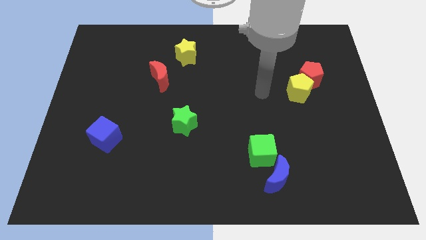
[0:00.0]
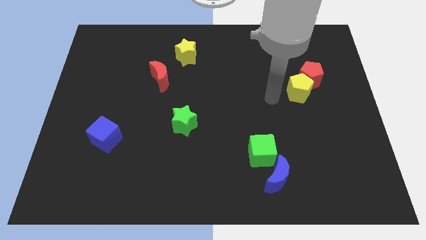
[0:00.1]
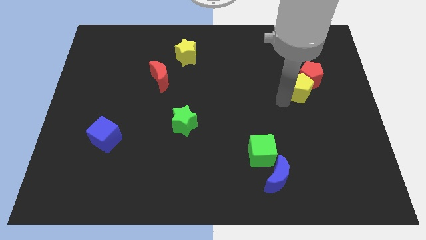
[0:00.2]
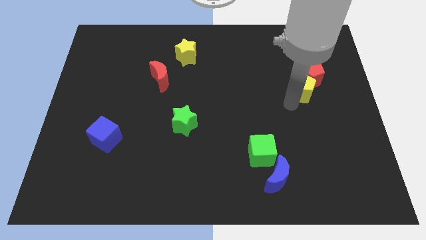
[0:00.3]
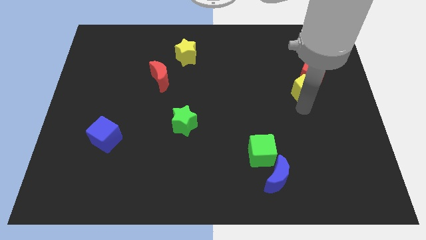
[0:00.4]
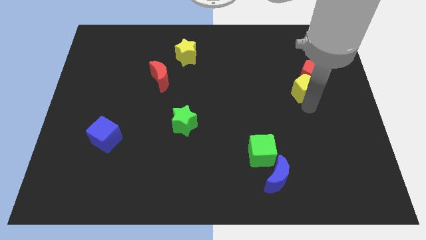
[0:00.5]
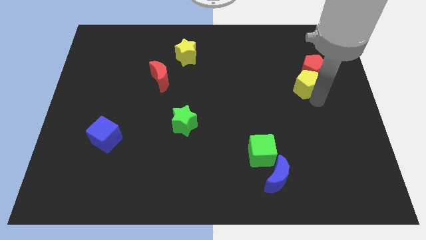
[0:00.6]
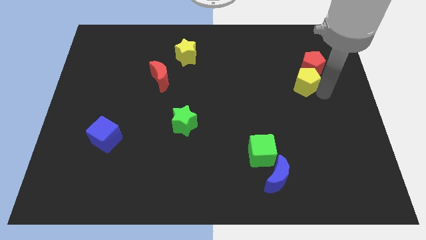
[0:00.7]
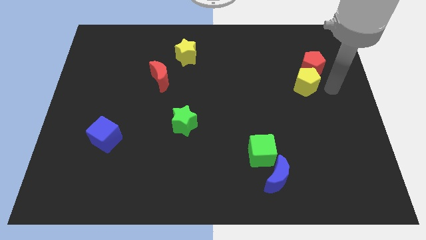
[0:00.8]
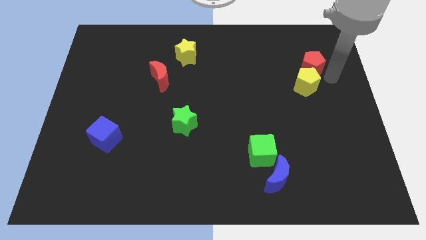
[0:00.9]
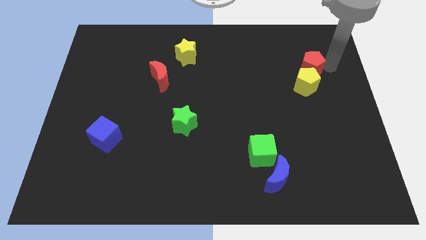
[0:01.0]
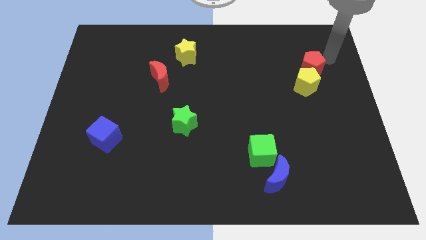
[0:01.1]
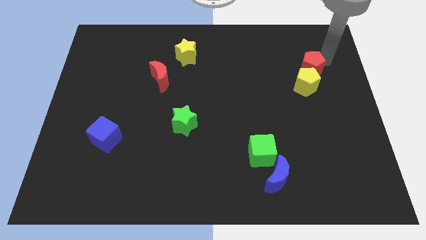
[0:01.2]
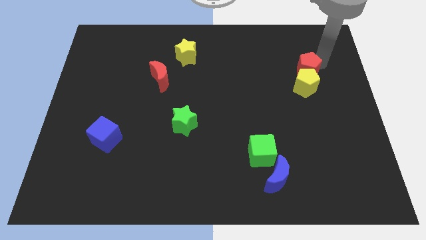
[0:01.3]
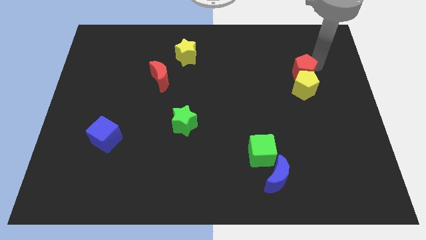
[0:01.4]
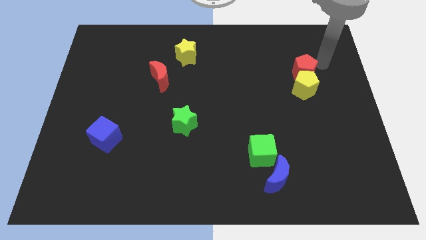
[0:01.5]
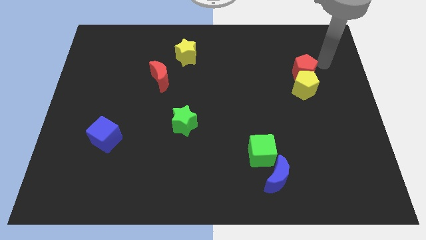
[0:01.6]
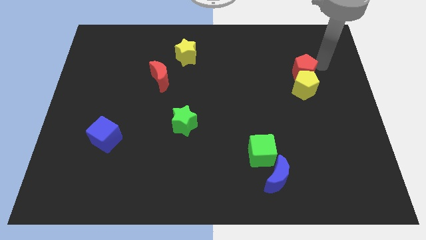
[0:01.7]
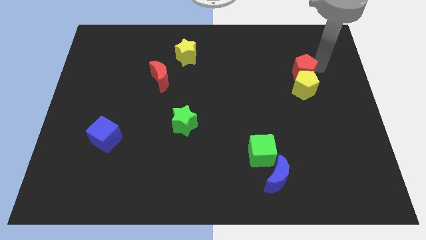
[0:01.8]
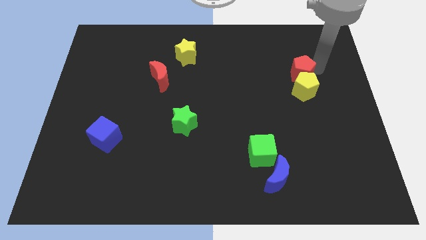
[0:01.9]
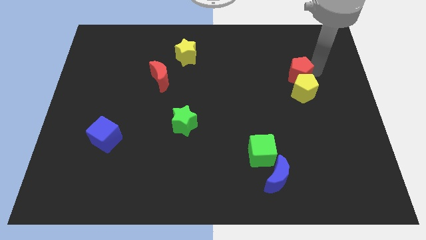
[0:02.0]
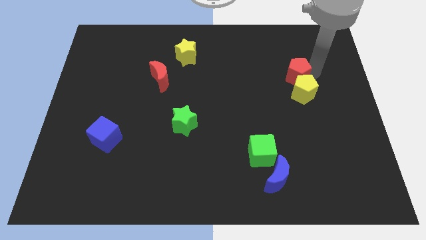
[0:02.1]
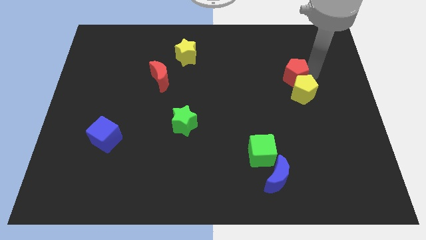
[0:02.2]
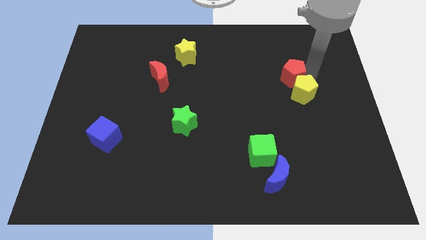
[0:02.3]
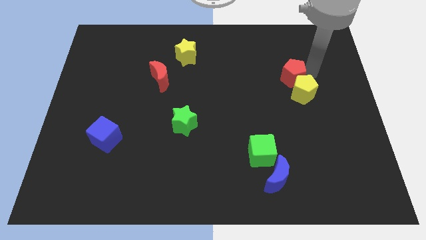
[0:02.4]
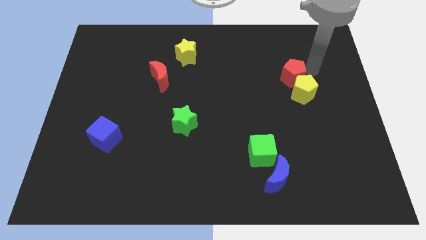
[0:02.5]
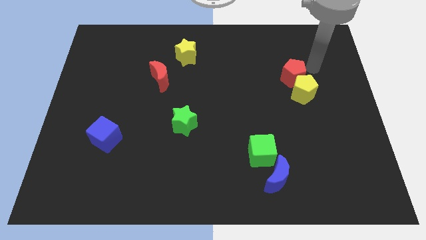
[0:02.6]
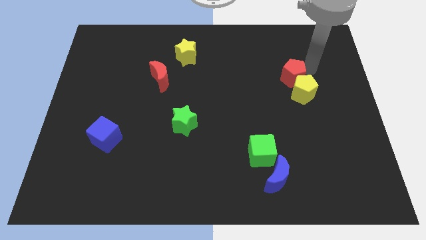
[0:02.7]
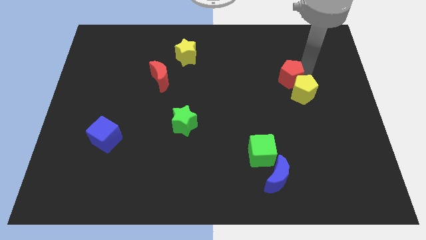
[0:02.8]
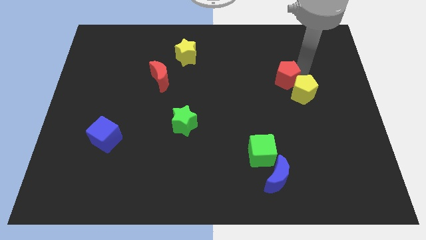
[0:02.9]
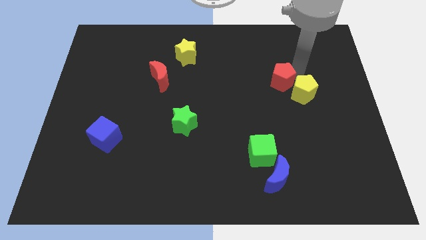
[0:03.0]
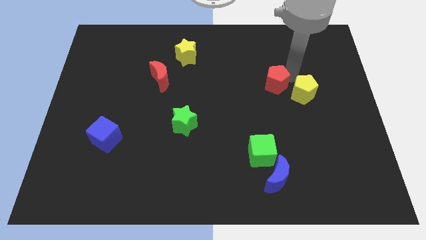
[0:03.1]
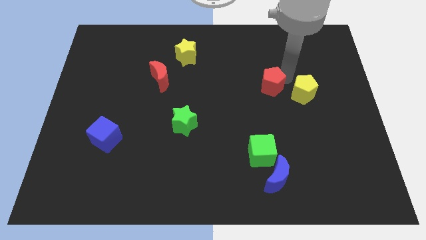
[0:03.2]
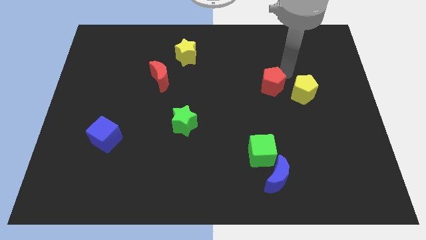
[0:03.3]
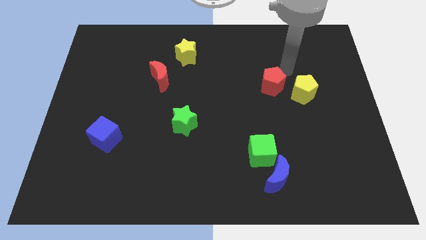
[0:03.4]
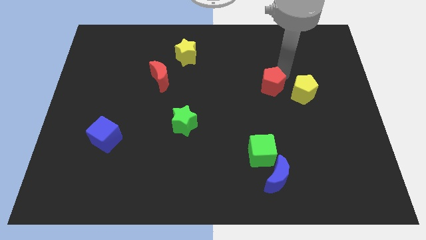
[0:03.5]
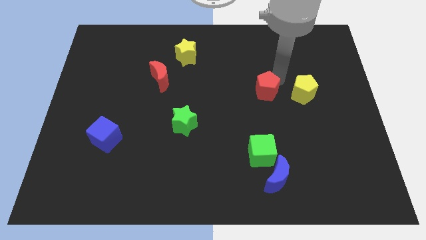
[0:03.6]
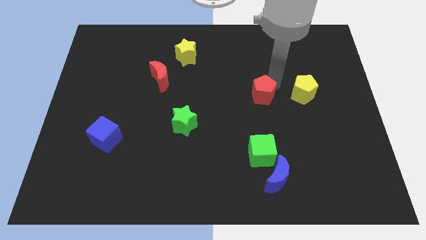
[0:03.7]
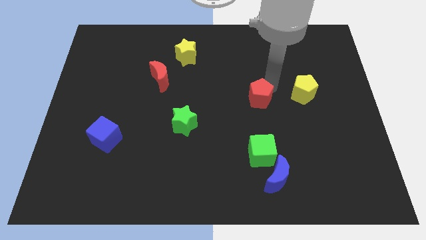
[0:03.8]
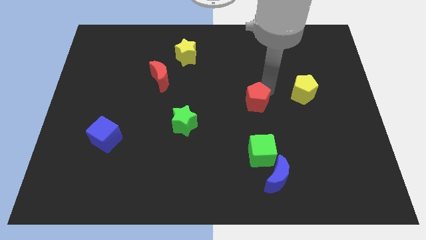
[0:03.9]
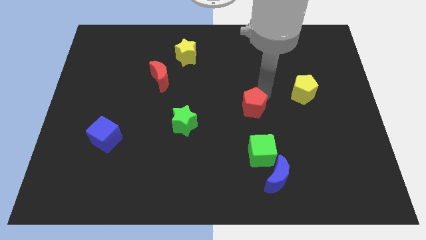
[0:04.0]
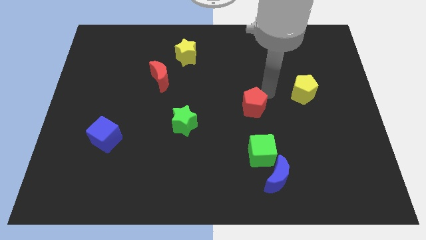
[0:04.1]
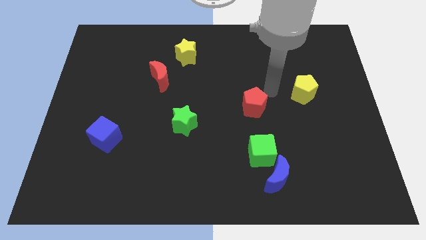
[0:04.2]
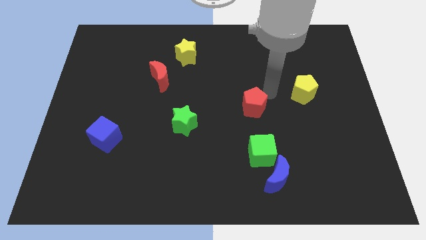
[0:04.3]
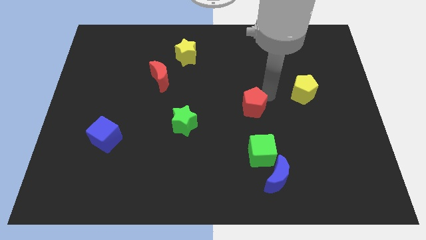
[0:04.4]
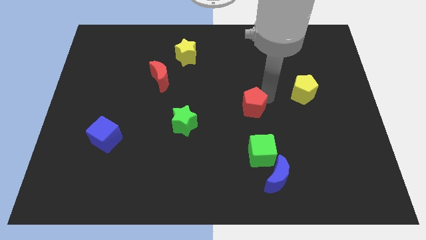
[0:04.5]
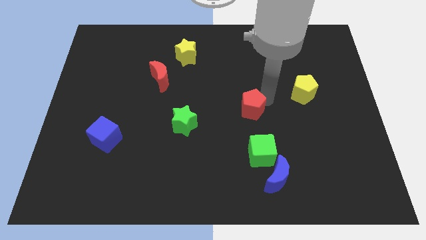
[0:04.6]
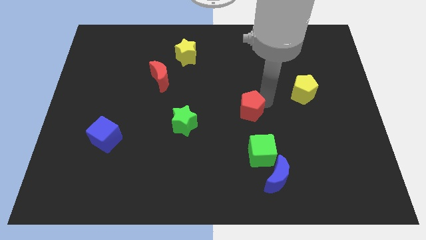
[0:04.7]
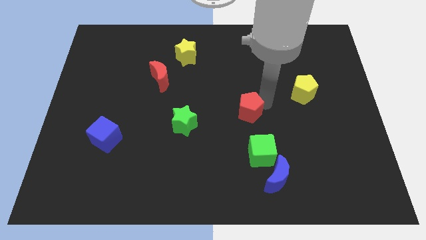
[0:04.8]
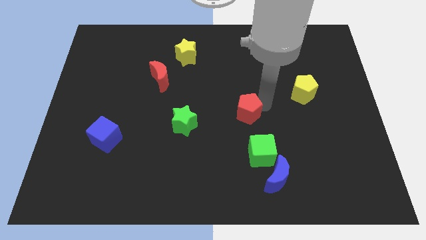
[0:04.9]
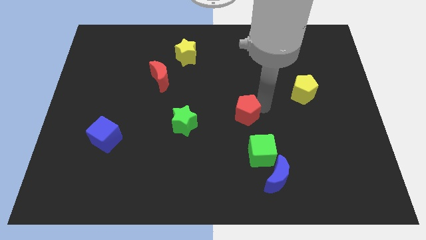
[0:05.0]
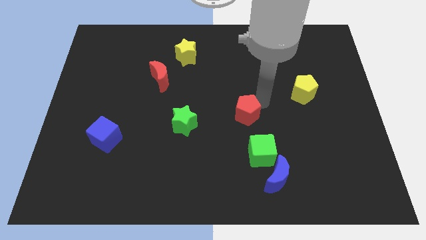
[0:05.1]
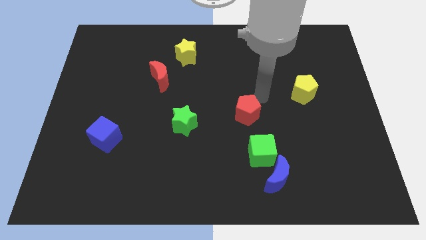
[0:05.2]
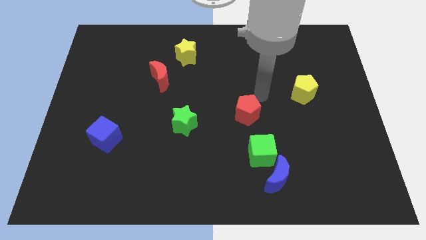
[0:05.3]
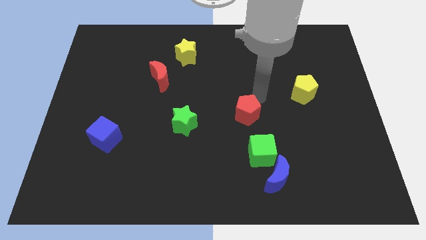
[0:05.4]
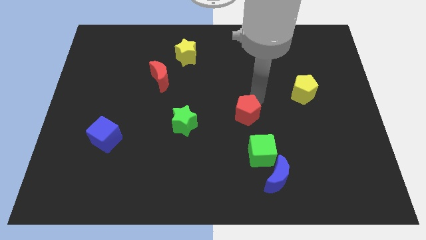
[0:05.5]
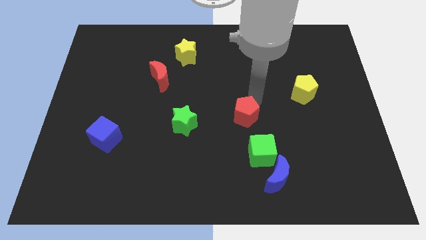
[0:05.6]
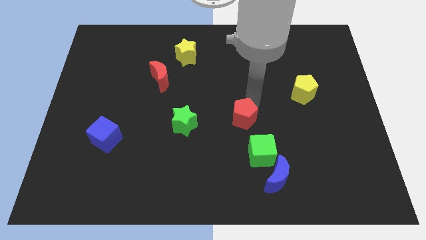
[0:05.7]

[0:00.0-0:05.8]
slide the red pentagon down and left diagonally

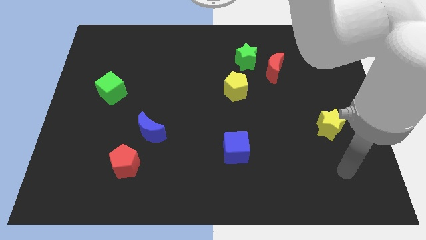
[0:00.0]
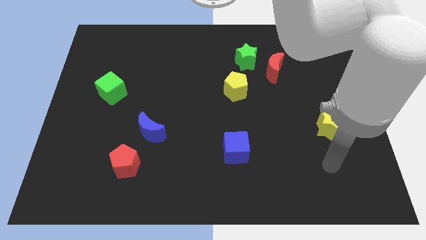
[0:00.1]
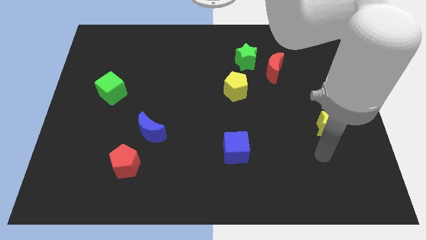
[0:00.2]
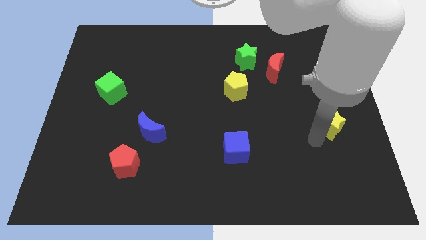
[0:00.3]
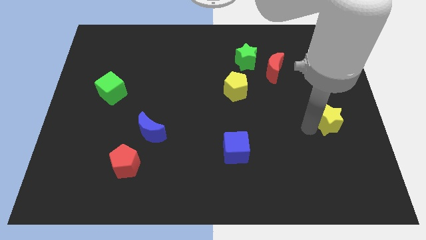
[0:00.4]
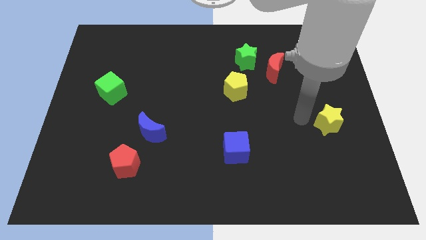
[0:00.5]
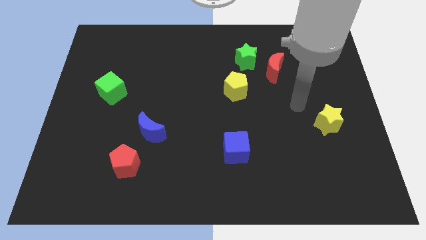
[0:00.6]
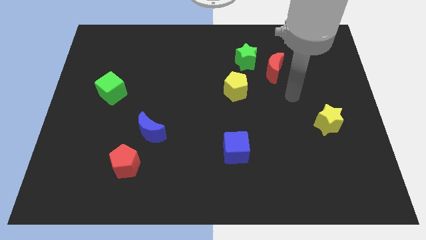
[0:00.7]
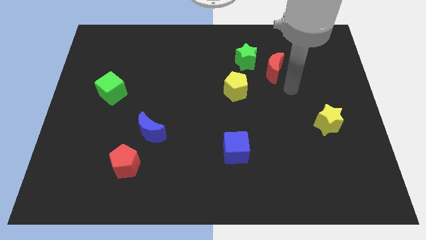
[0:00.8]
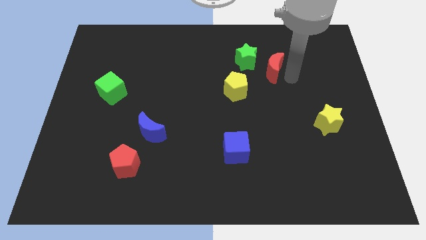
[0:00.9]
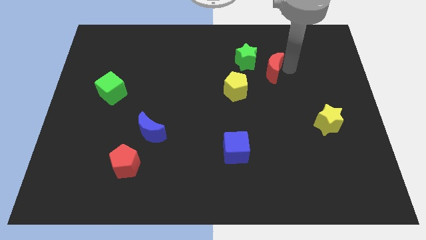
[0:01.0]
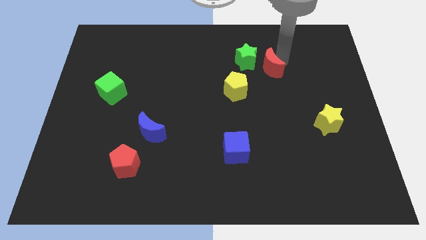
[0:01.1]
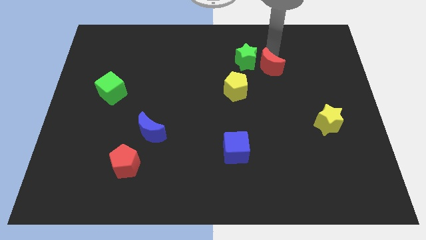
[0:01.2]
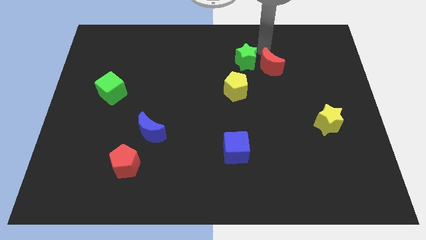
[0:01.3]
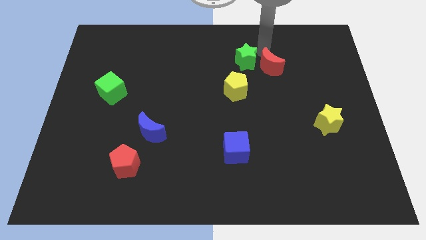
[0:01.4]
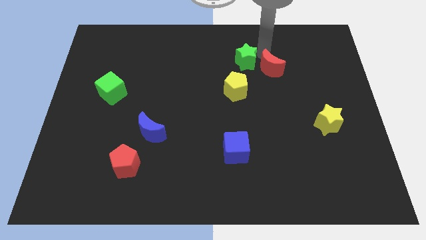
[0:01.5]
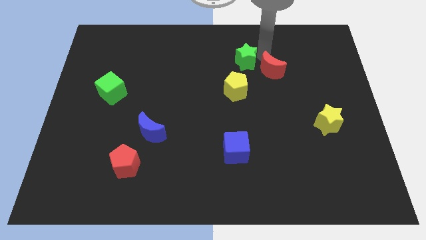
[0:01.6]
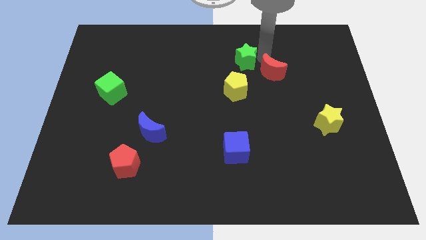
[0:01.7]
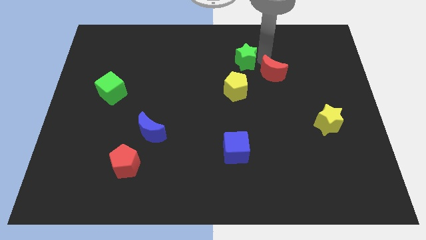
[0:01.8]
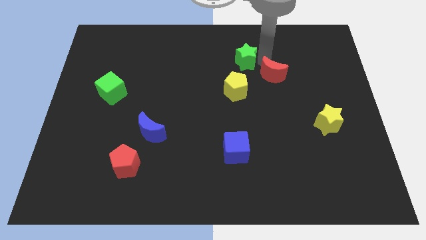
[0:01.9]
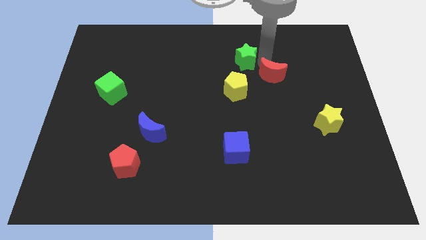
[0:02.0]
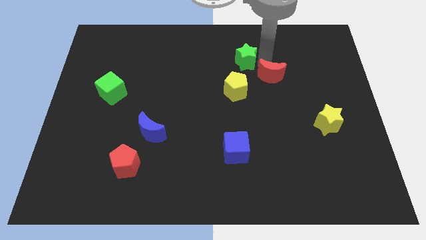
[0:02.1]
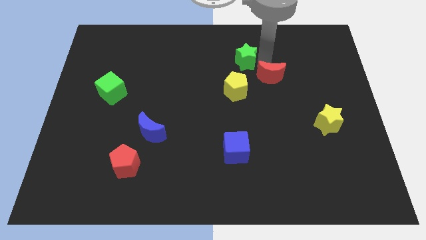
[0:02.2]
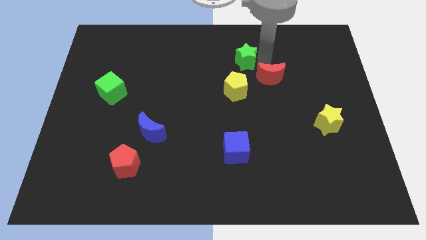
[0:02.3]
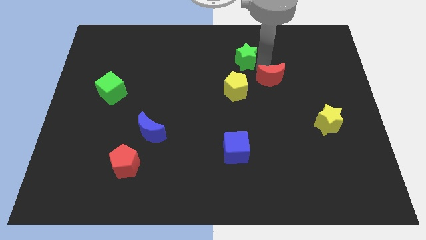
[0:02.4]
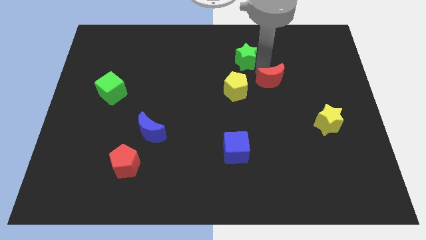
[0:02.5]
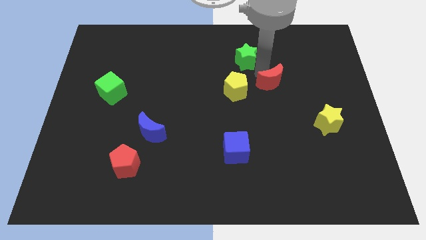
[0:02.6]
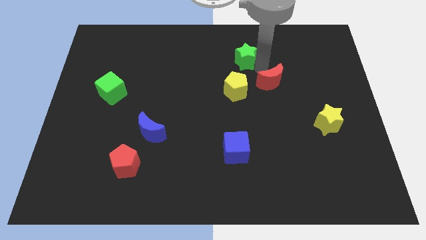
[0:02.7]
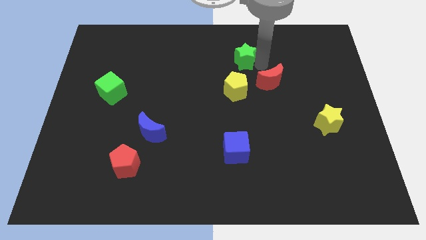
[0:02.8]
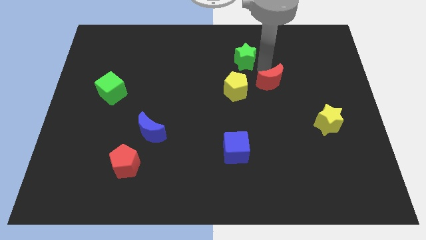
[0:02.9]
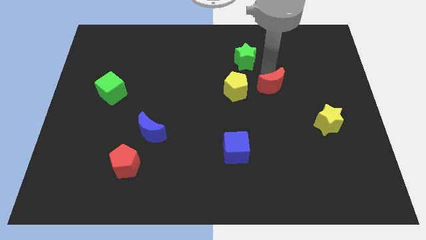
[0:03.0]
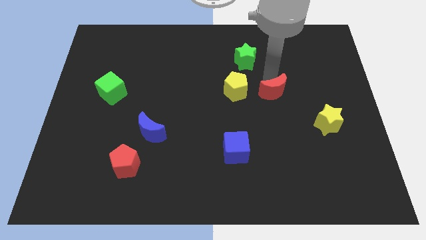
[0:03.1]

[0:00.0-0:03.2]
slightly push the red moon downwards
